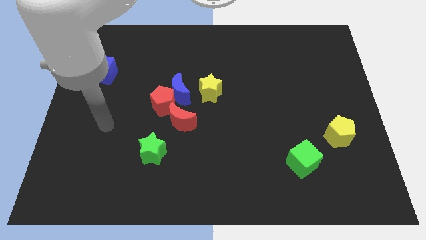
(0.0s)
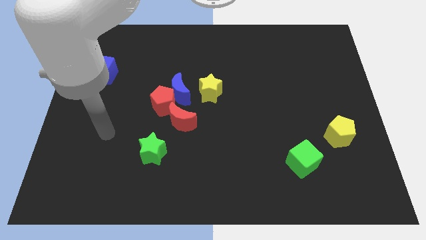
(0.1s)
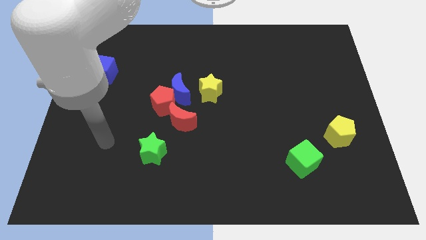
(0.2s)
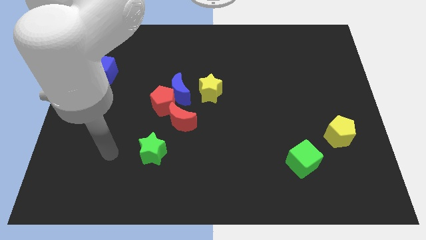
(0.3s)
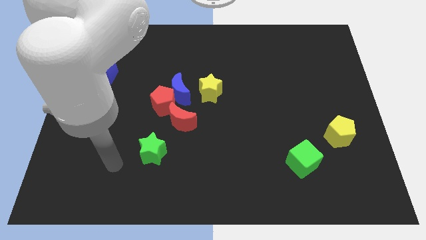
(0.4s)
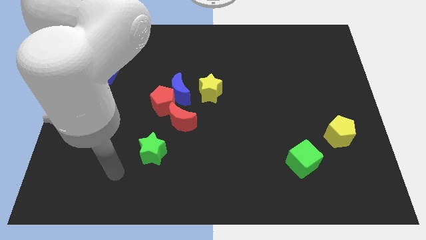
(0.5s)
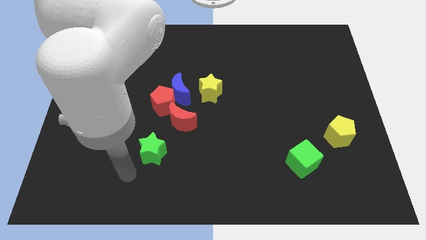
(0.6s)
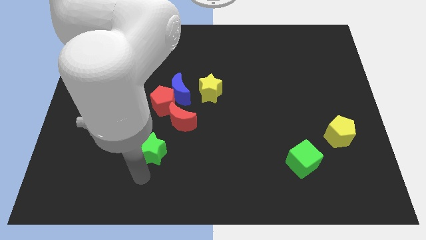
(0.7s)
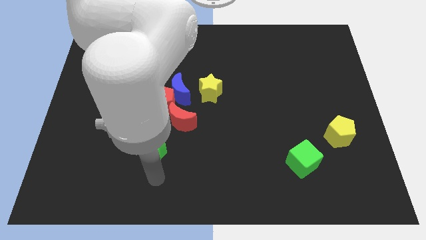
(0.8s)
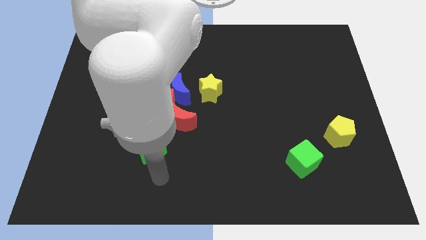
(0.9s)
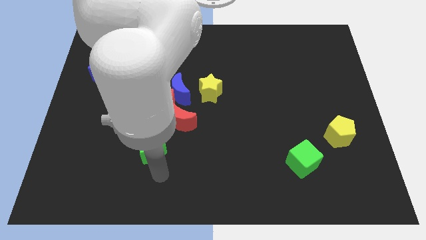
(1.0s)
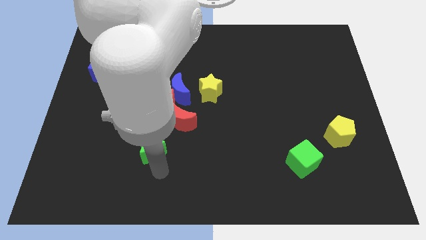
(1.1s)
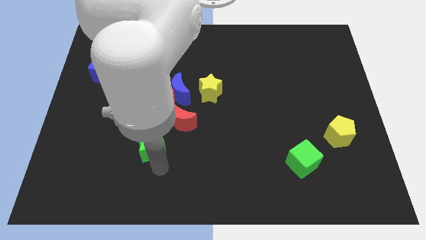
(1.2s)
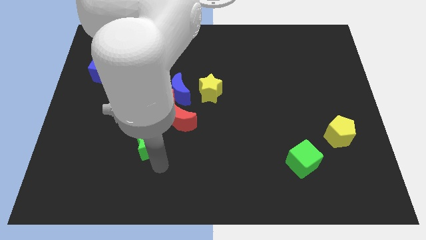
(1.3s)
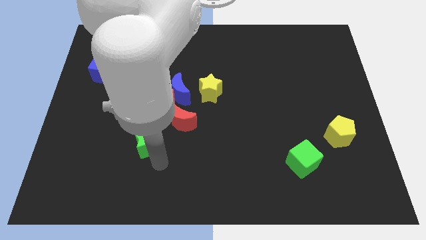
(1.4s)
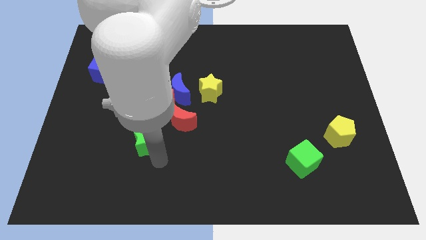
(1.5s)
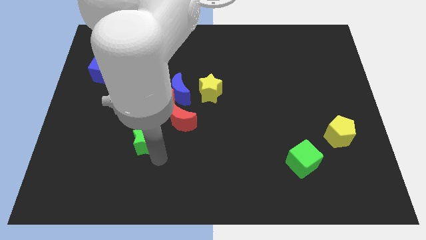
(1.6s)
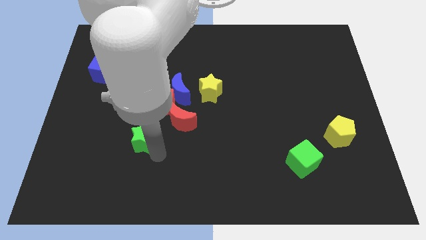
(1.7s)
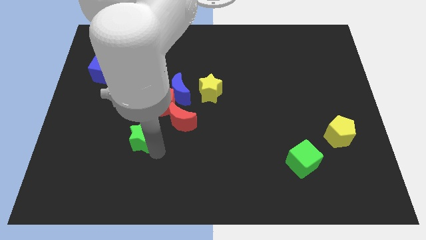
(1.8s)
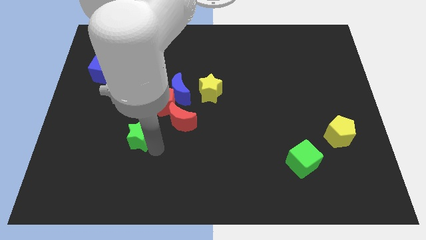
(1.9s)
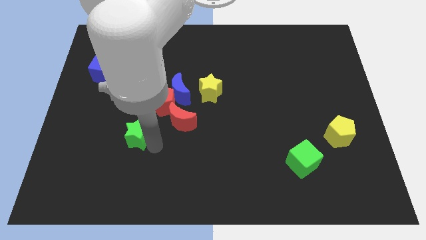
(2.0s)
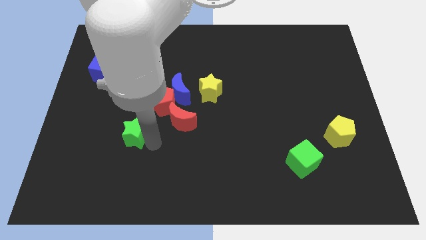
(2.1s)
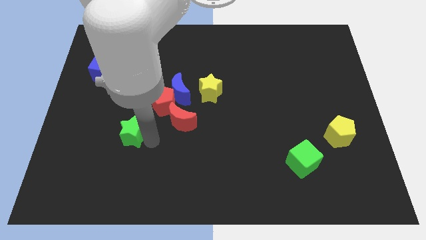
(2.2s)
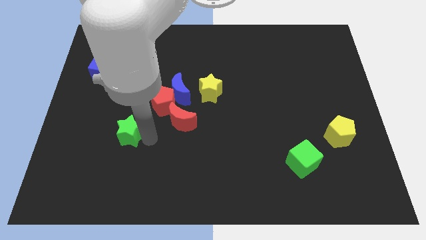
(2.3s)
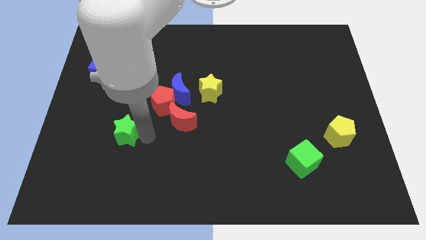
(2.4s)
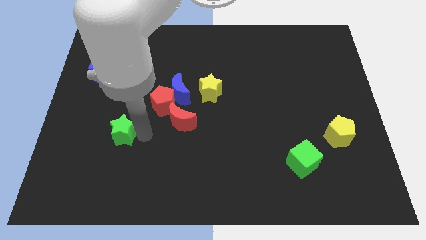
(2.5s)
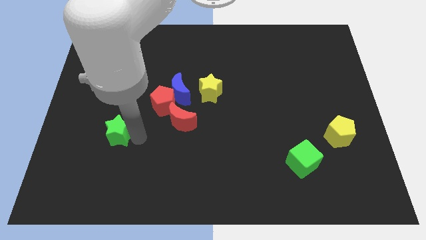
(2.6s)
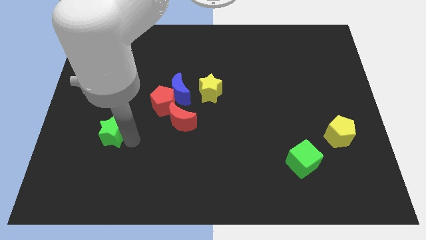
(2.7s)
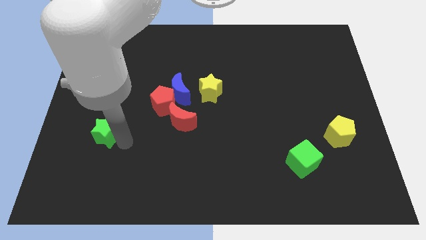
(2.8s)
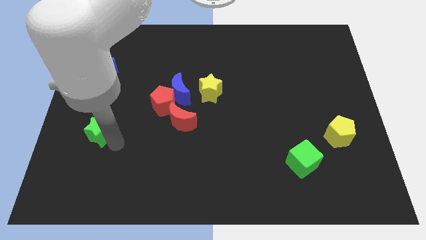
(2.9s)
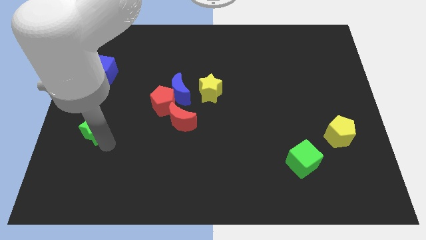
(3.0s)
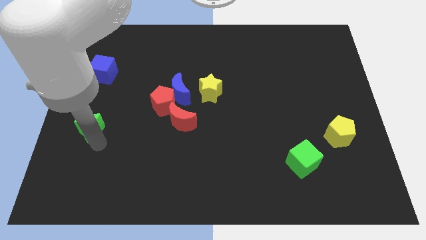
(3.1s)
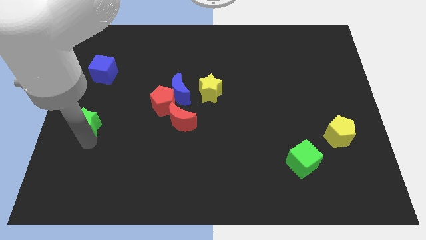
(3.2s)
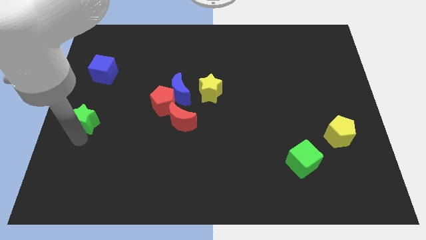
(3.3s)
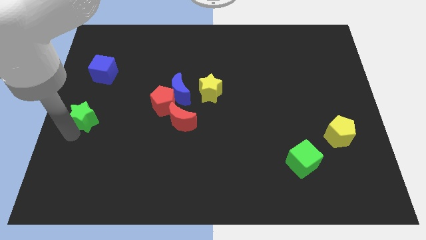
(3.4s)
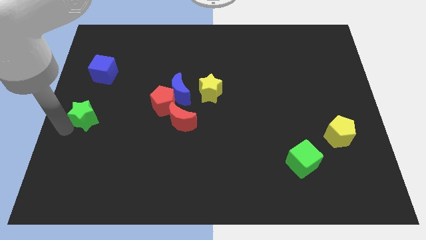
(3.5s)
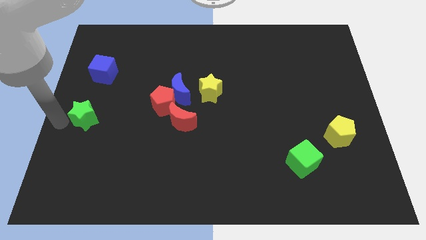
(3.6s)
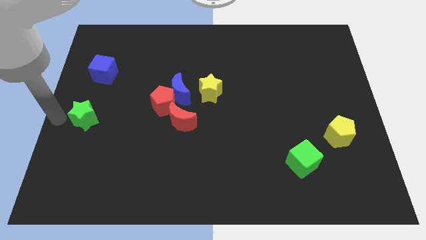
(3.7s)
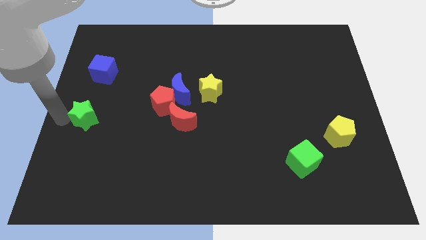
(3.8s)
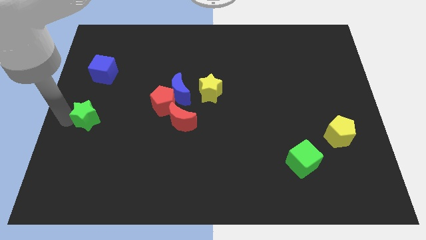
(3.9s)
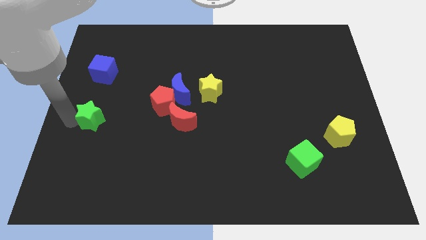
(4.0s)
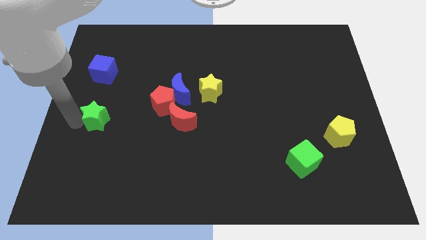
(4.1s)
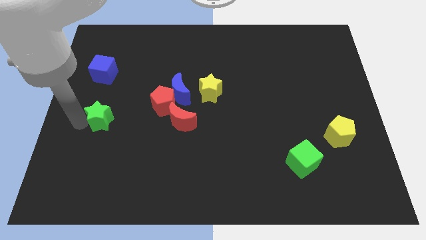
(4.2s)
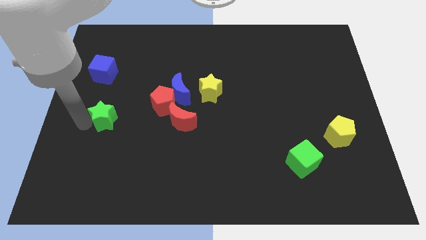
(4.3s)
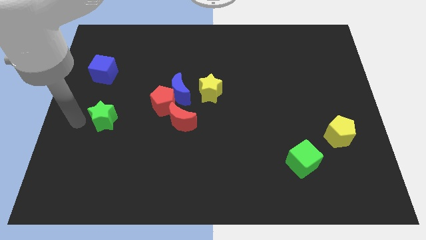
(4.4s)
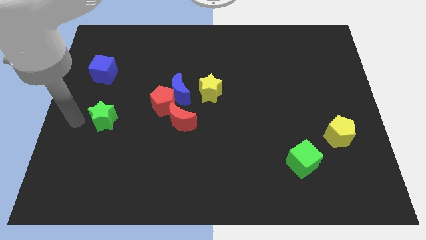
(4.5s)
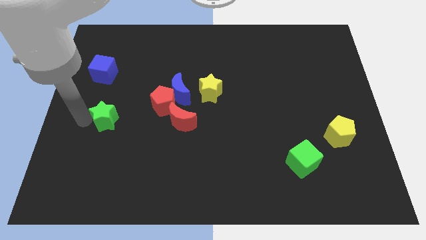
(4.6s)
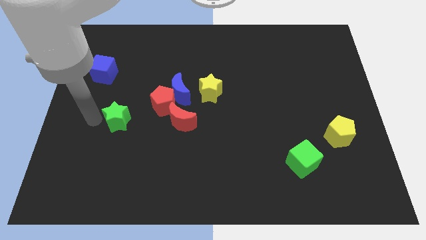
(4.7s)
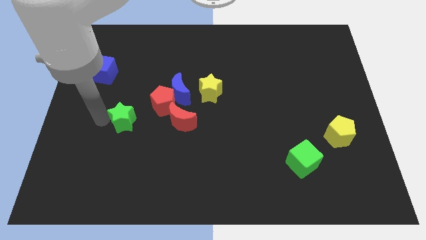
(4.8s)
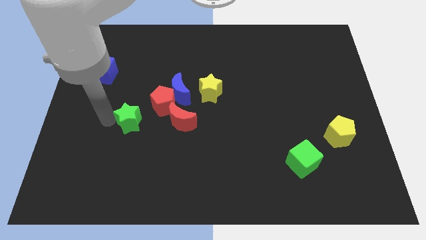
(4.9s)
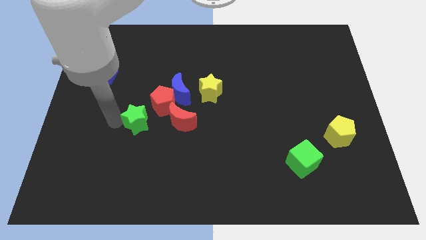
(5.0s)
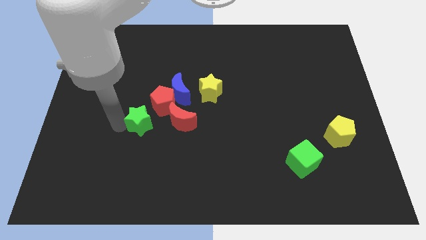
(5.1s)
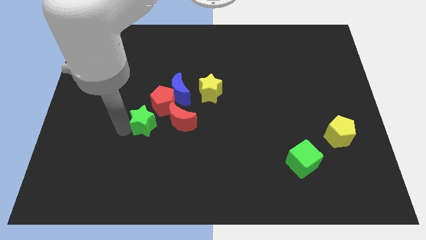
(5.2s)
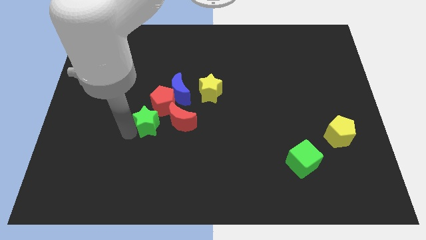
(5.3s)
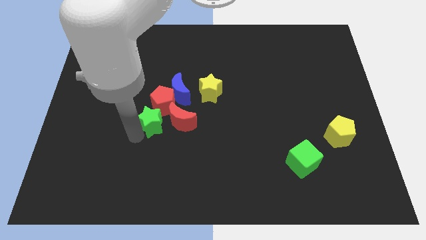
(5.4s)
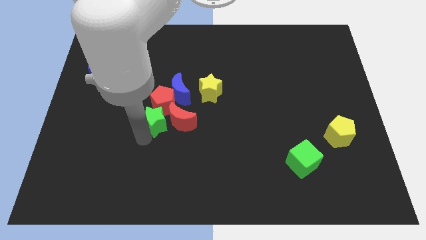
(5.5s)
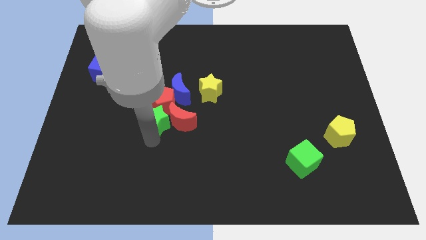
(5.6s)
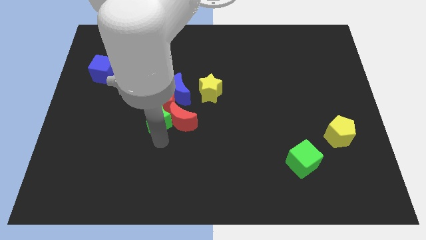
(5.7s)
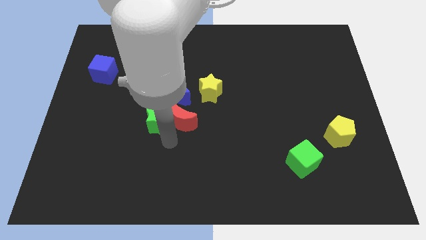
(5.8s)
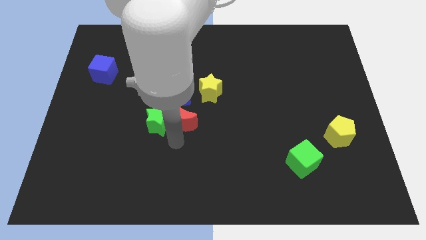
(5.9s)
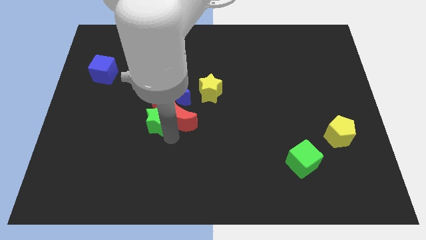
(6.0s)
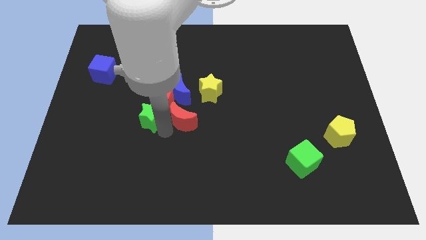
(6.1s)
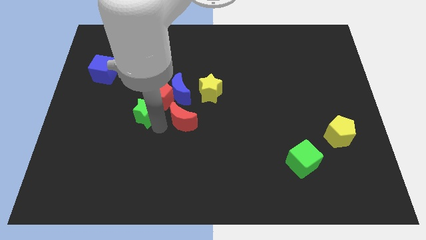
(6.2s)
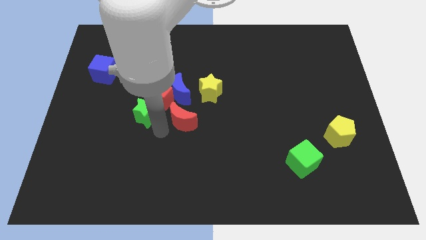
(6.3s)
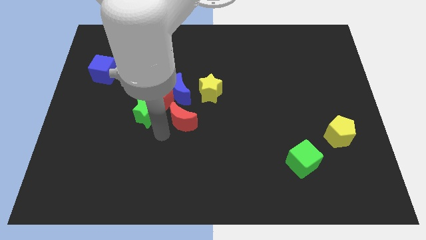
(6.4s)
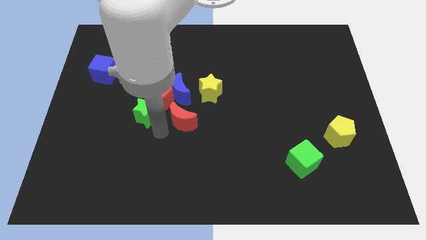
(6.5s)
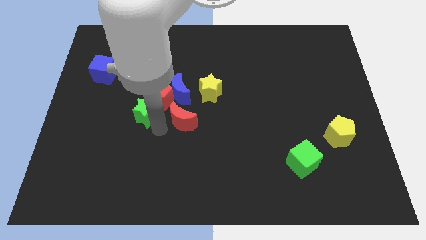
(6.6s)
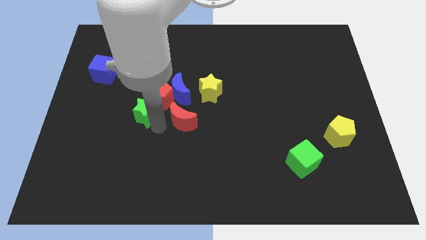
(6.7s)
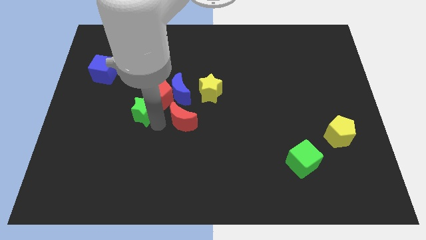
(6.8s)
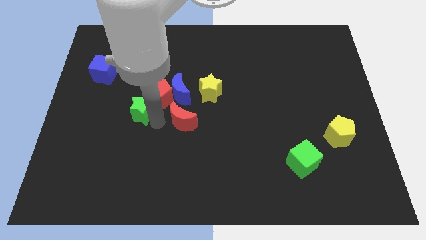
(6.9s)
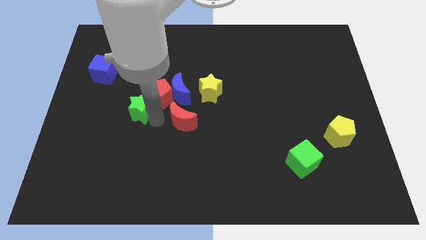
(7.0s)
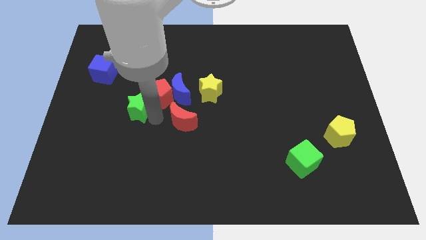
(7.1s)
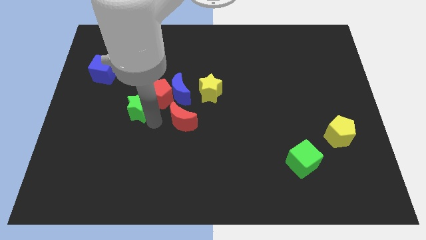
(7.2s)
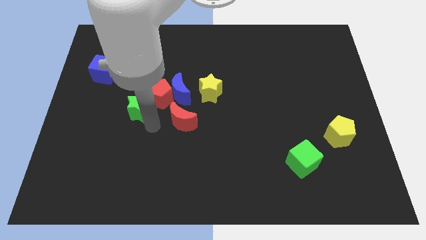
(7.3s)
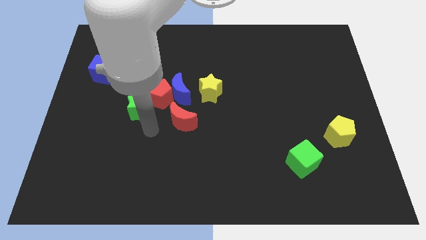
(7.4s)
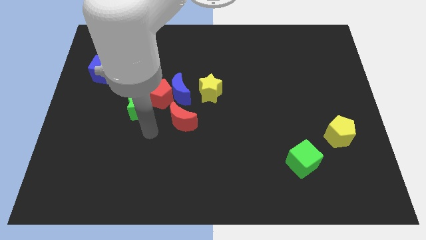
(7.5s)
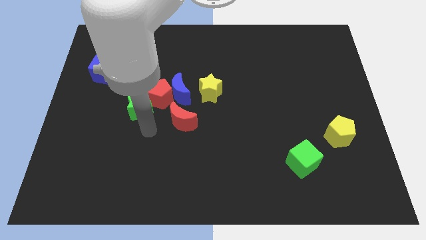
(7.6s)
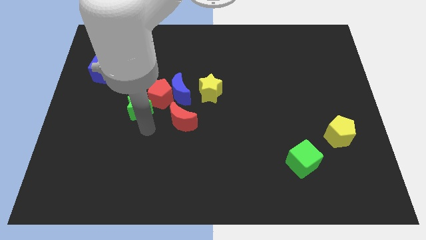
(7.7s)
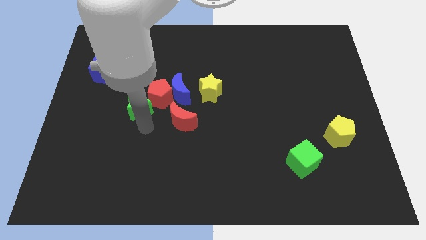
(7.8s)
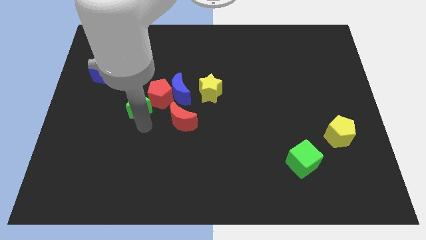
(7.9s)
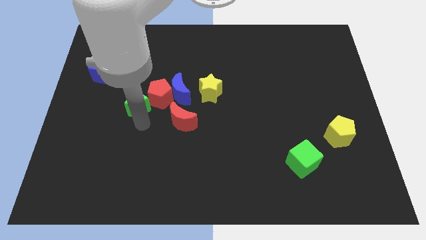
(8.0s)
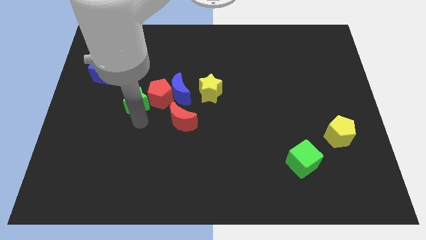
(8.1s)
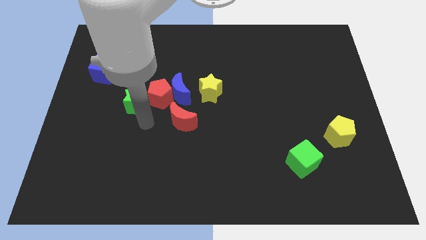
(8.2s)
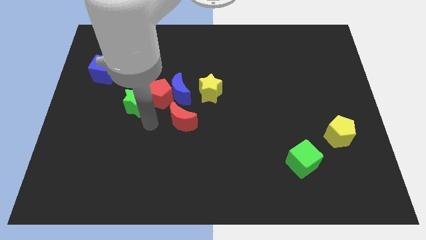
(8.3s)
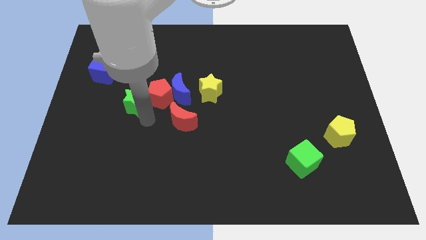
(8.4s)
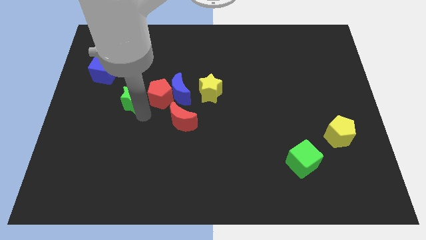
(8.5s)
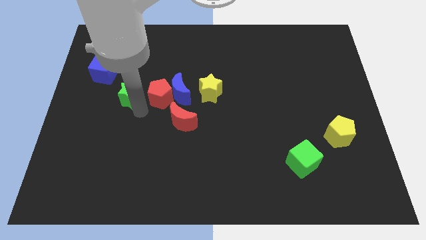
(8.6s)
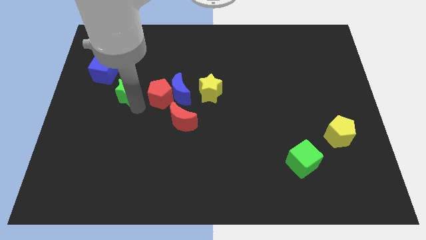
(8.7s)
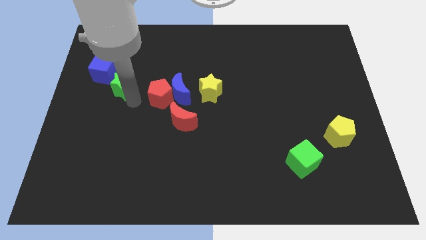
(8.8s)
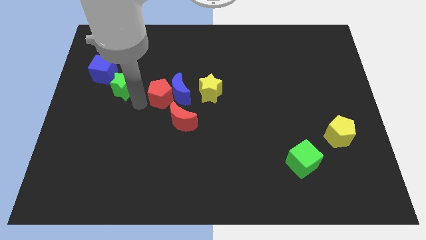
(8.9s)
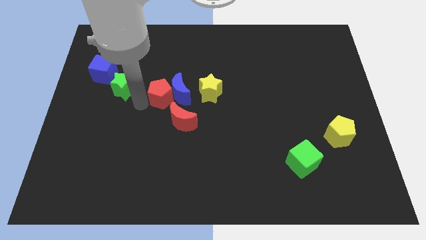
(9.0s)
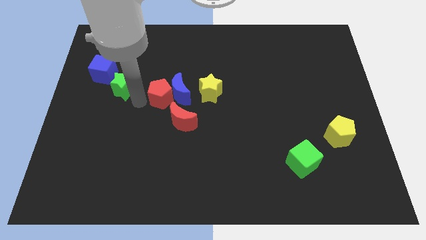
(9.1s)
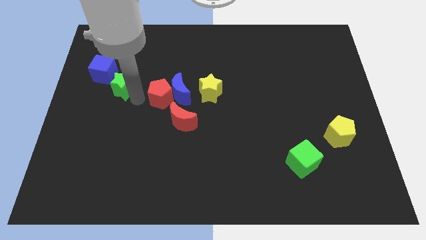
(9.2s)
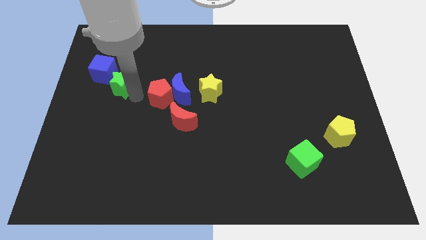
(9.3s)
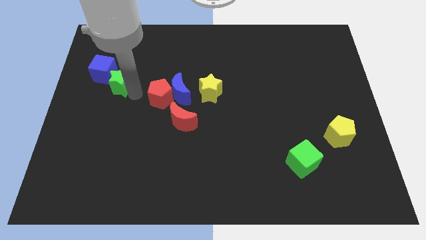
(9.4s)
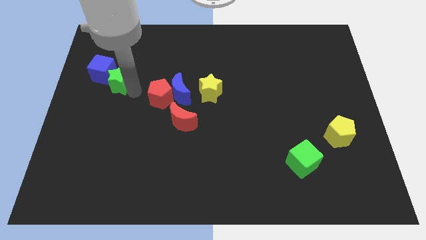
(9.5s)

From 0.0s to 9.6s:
slide the green star to the blue cube
